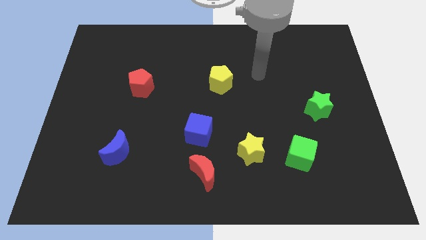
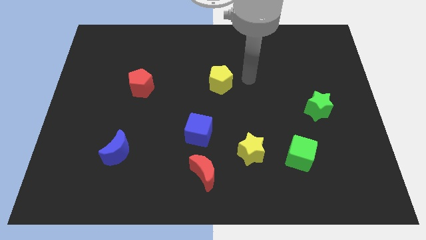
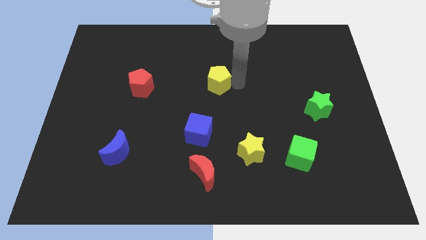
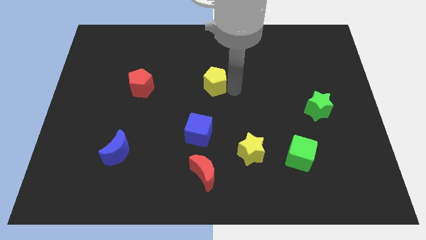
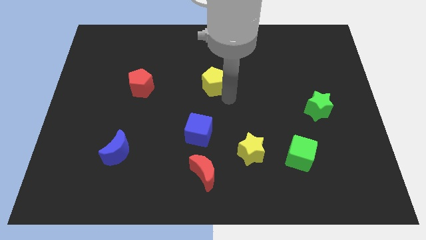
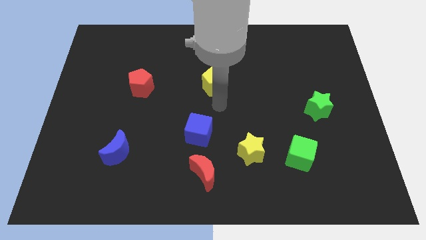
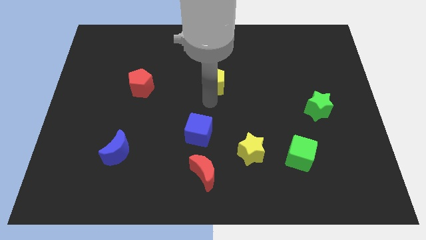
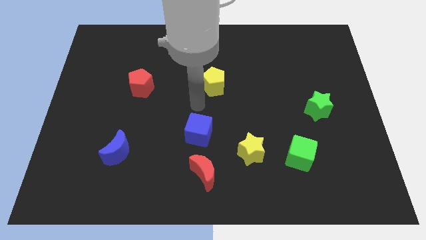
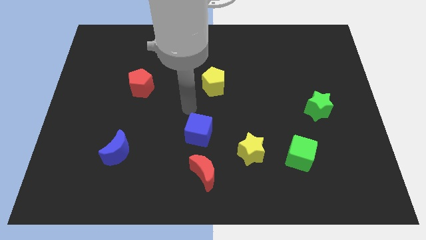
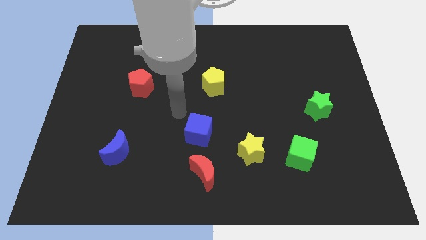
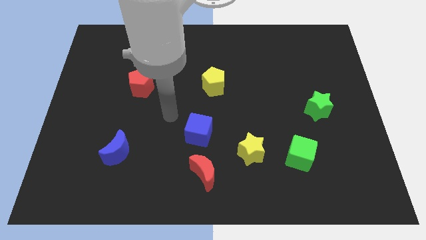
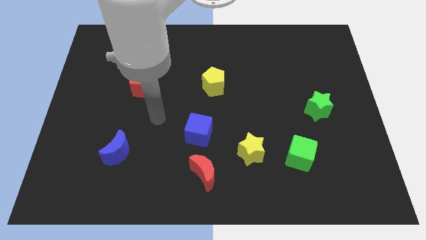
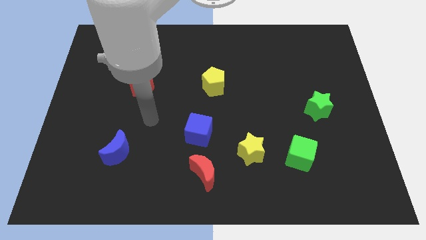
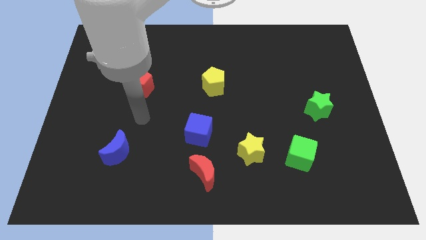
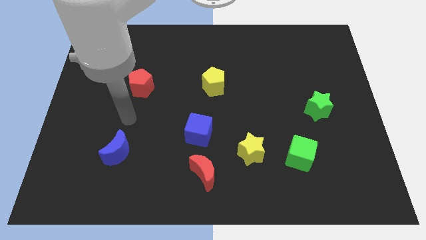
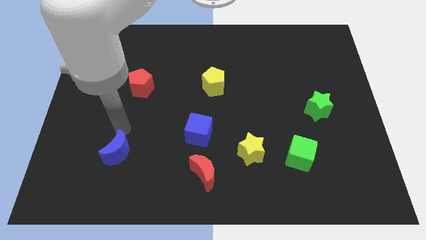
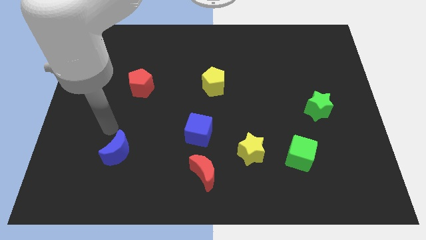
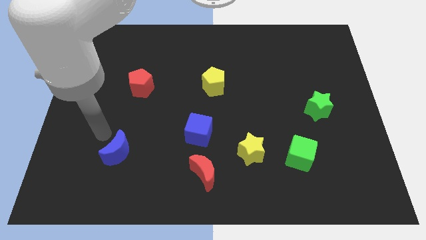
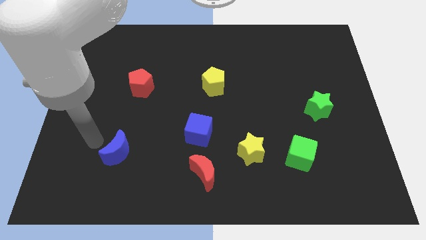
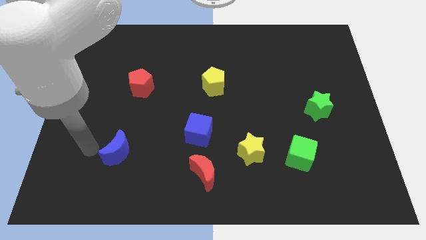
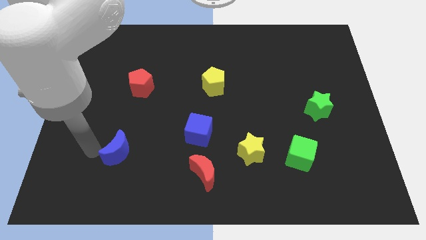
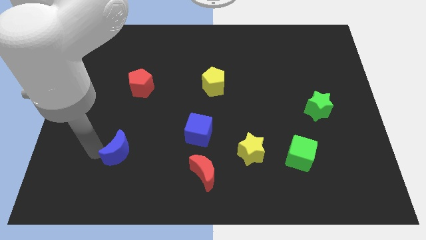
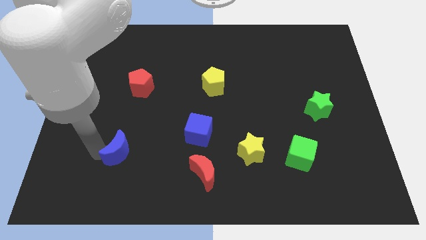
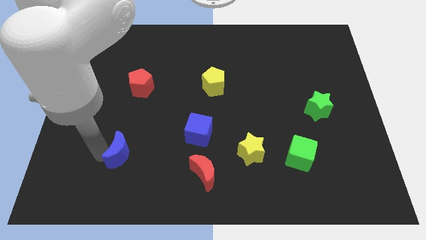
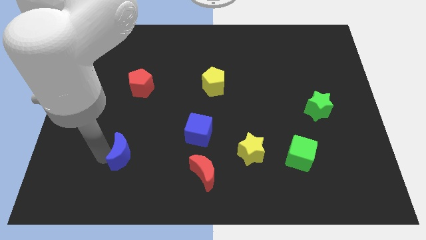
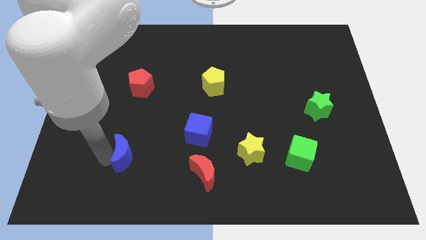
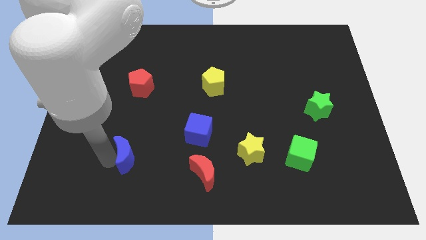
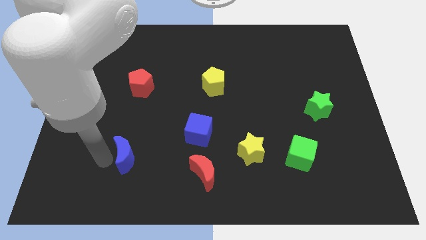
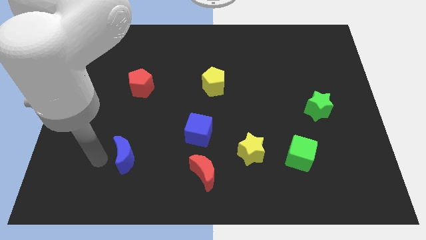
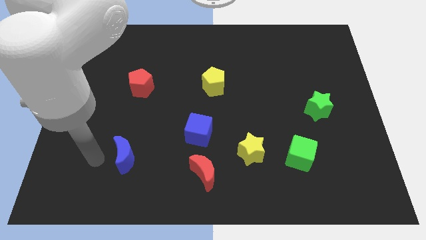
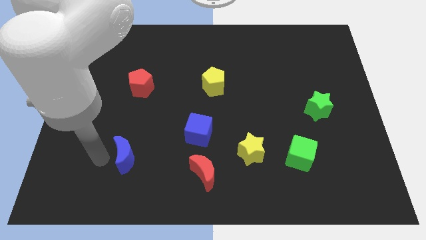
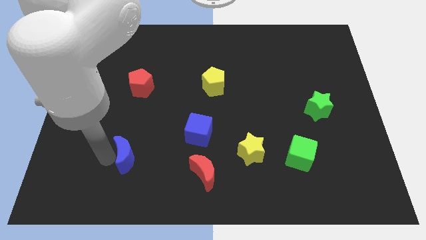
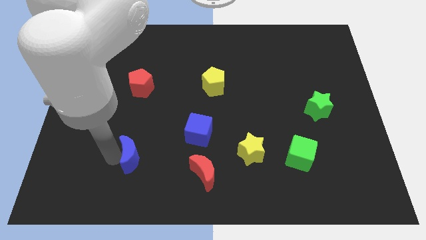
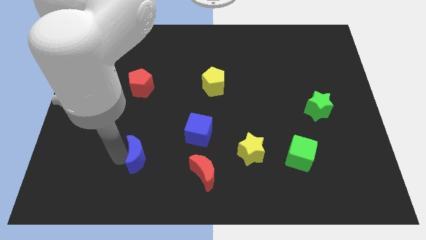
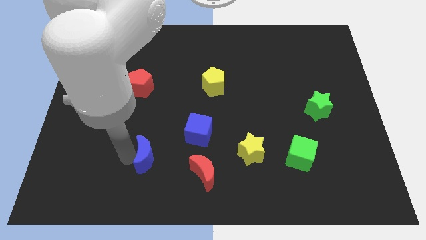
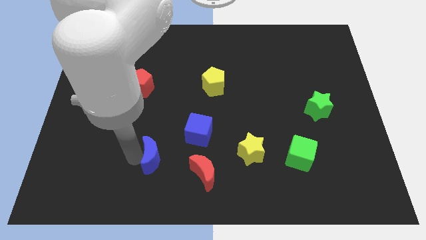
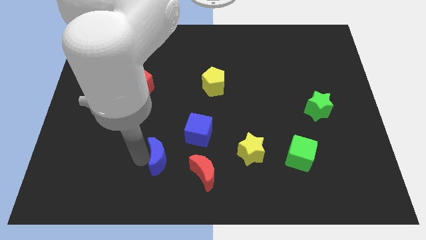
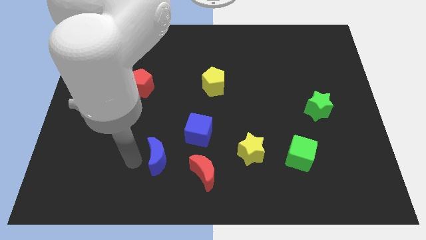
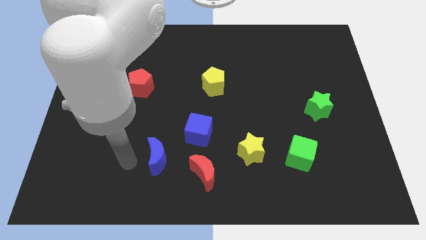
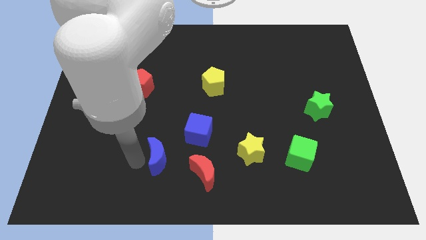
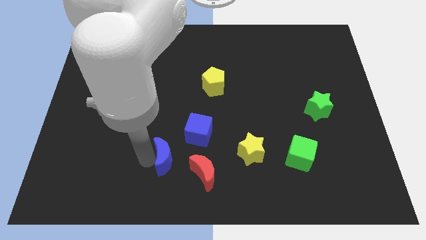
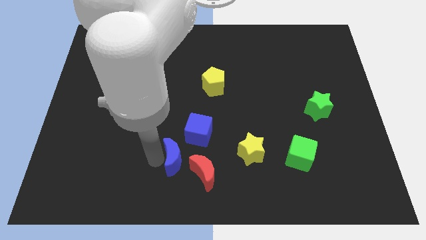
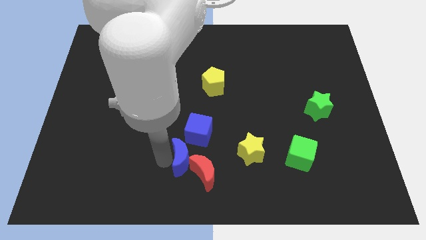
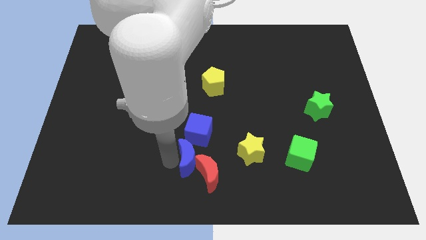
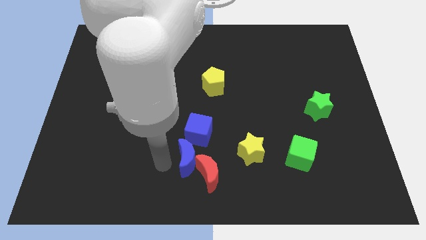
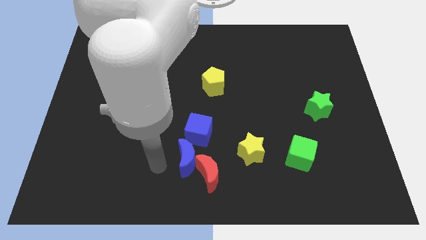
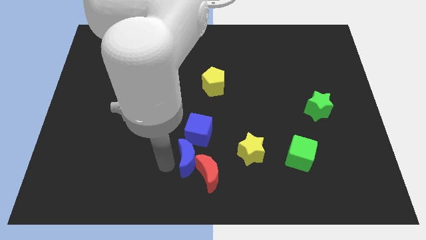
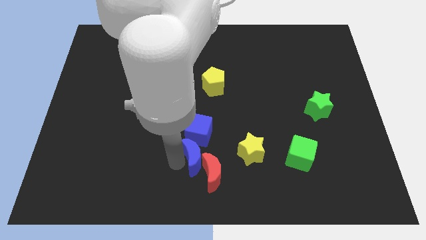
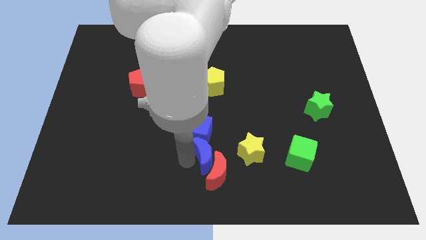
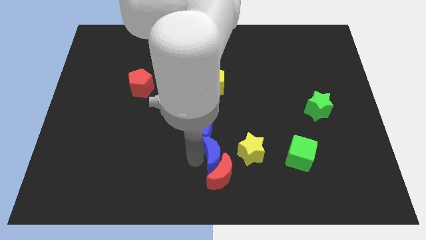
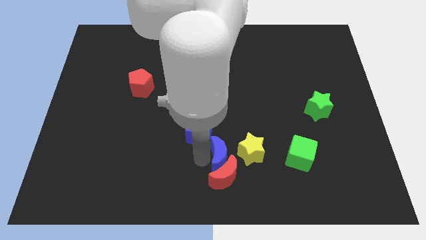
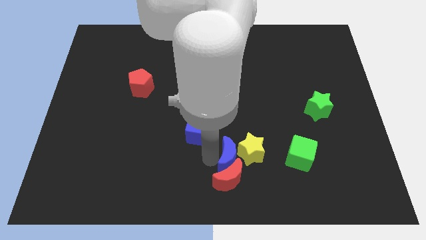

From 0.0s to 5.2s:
put the blue moon next to the yellow star

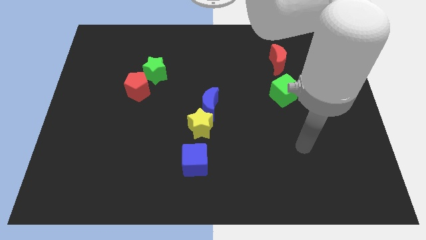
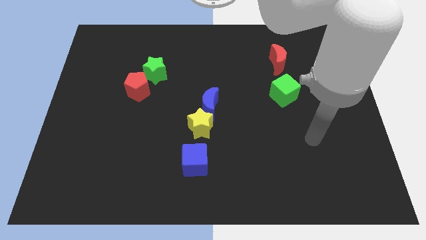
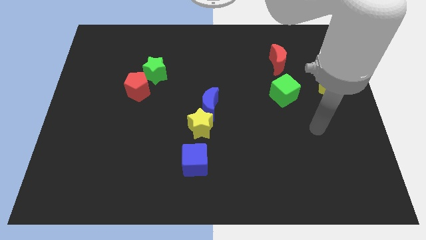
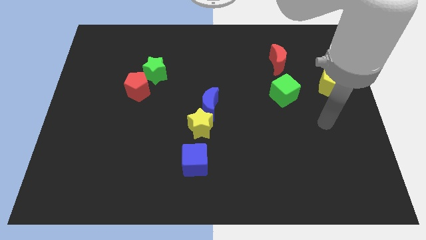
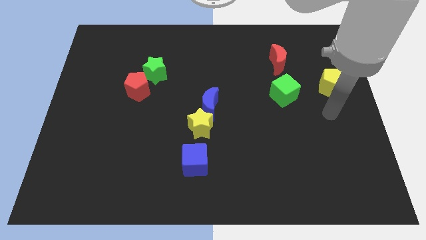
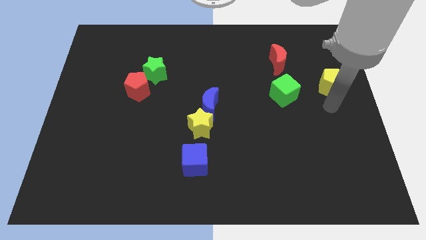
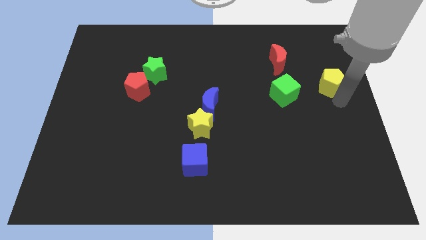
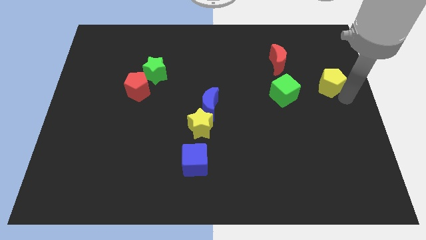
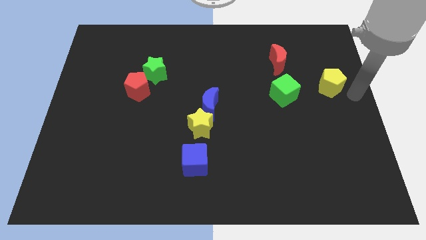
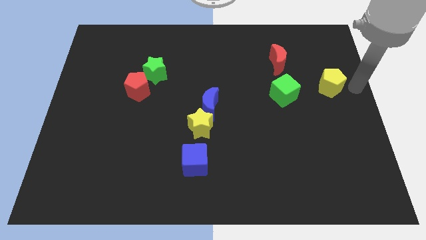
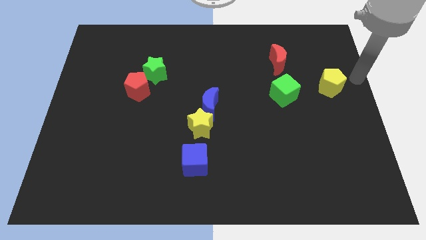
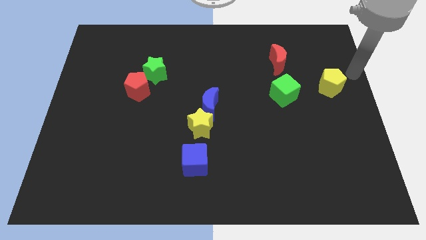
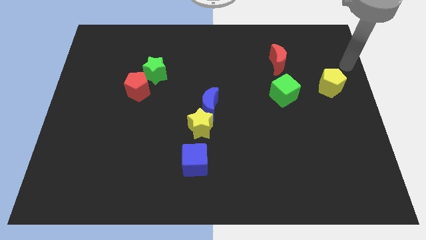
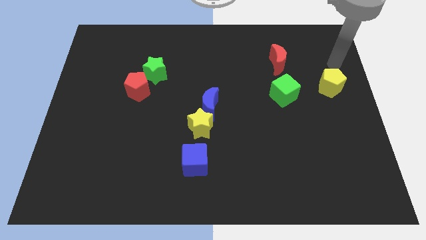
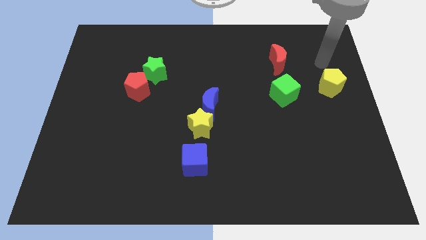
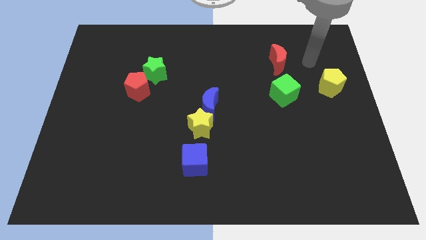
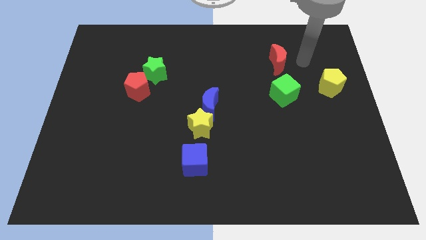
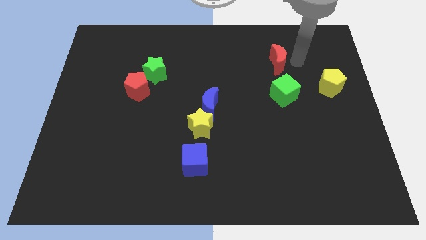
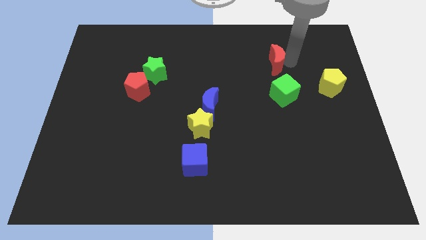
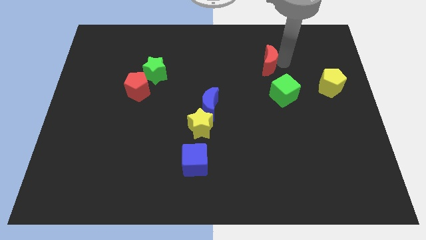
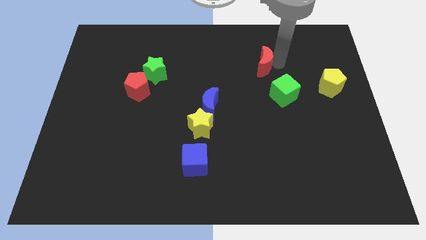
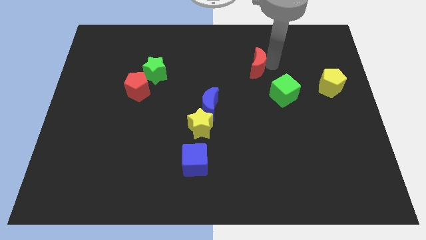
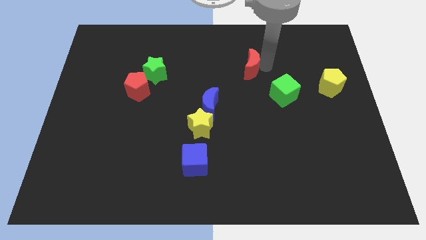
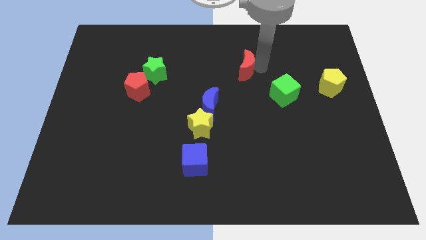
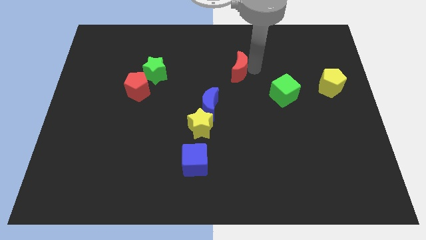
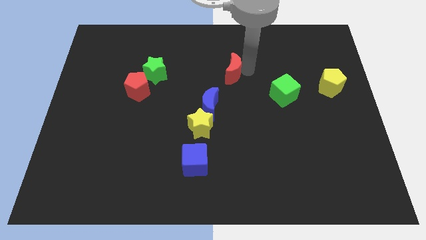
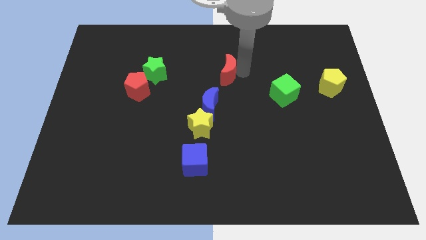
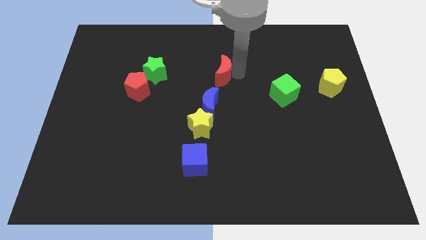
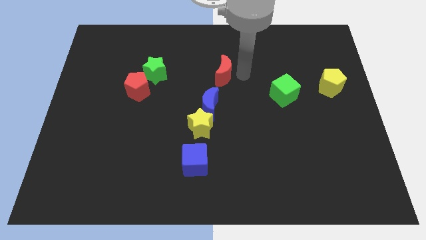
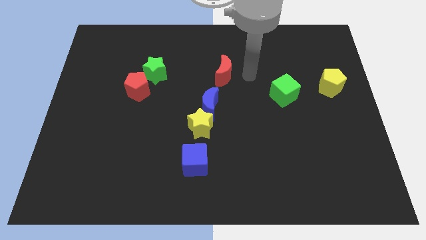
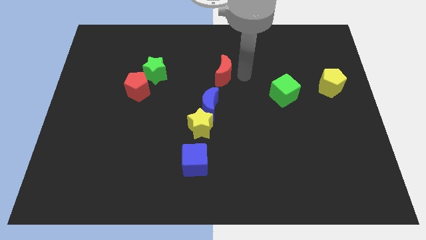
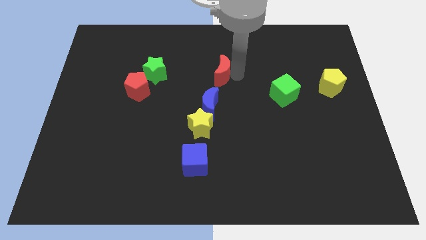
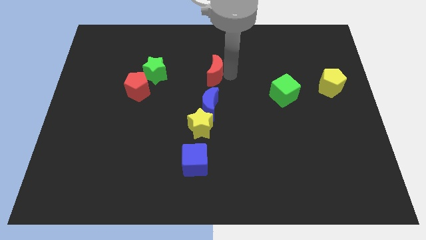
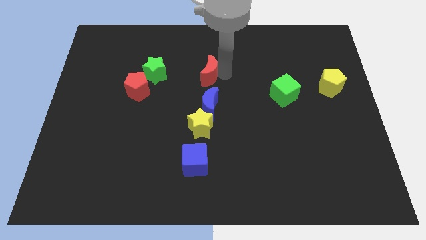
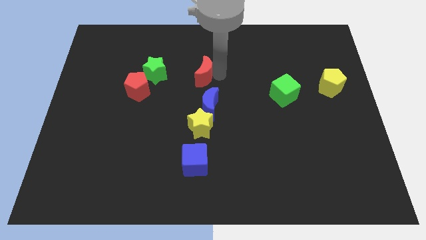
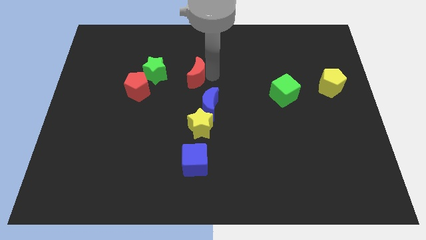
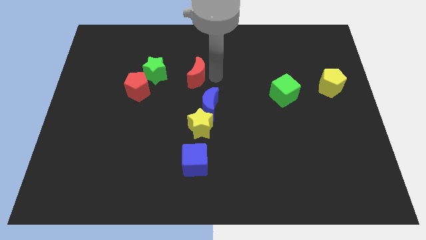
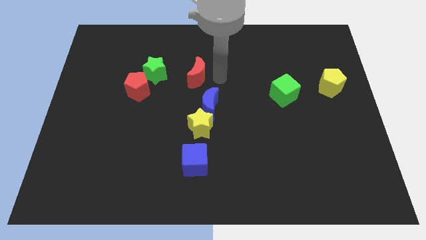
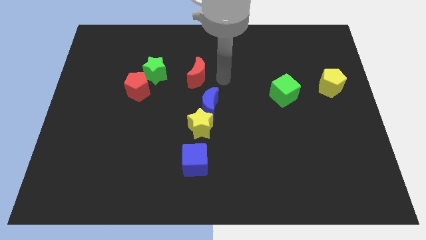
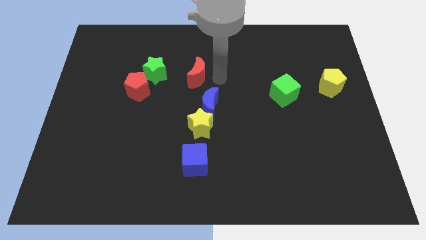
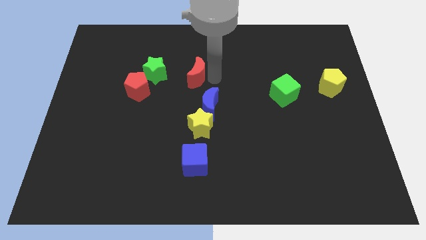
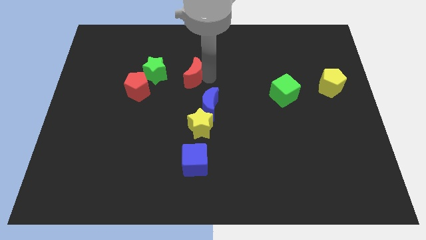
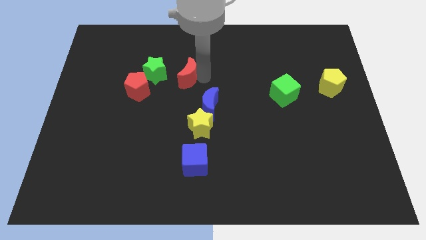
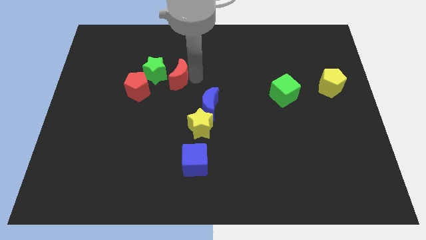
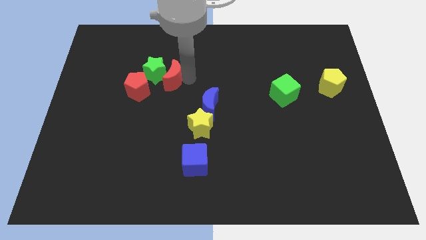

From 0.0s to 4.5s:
push the red moon to the green star
